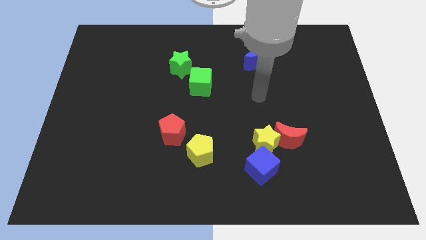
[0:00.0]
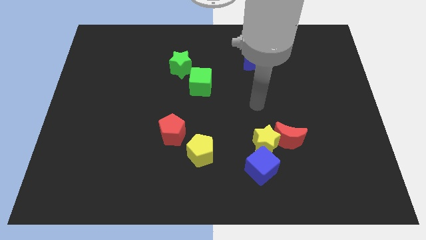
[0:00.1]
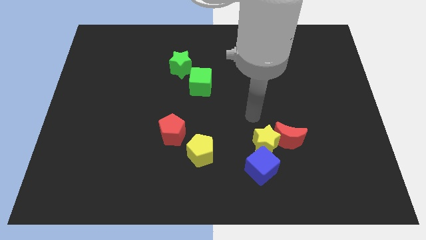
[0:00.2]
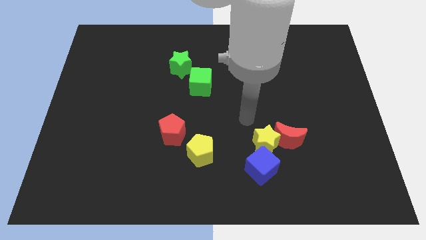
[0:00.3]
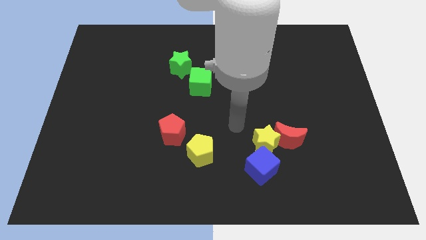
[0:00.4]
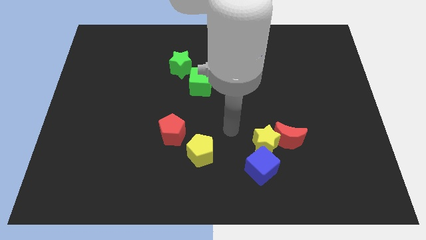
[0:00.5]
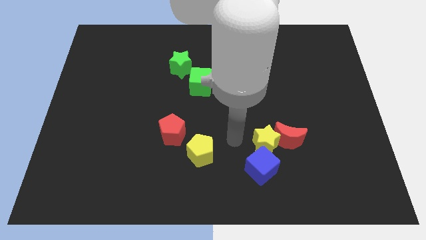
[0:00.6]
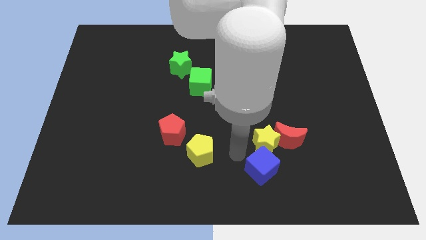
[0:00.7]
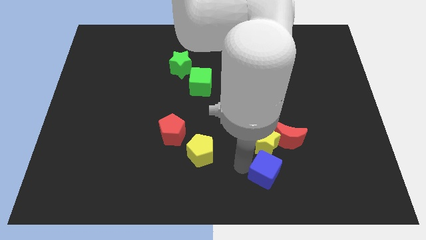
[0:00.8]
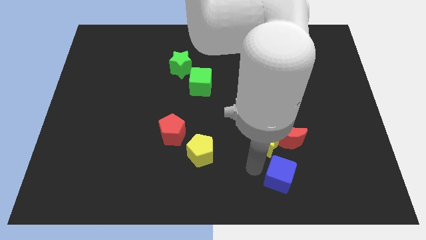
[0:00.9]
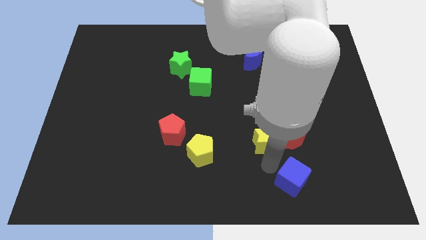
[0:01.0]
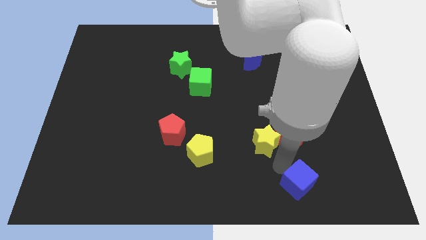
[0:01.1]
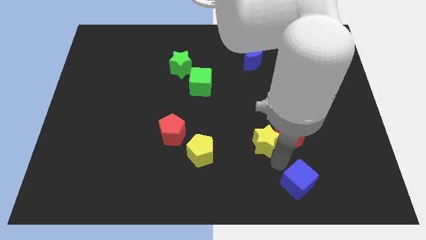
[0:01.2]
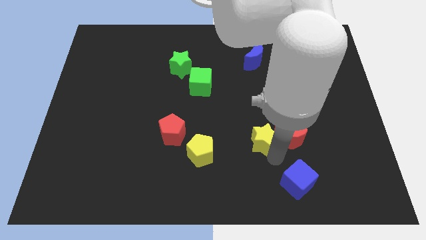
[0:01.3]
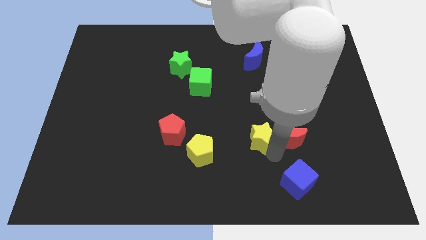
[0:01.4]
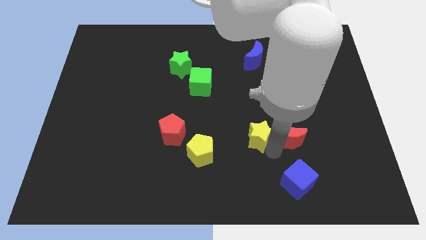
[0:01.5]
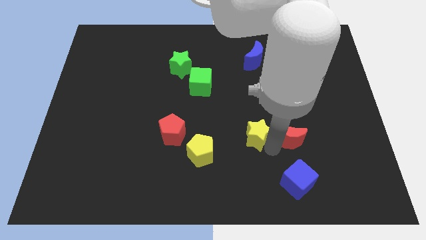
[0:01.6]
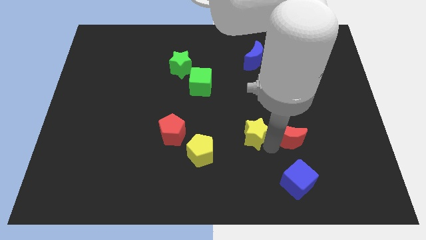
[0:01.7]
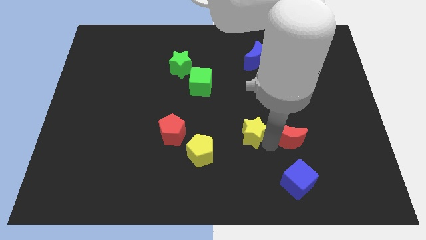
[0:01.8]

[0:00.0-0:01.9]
separate the yellow star from the red moon and blue cube

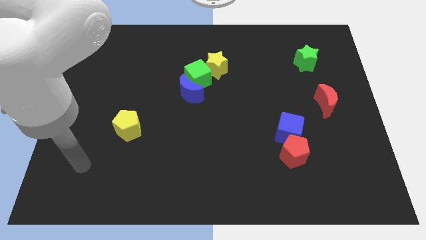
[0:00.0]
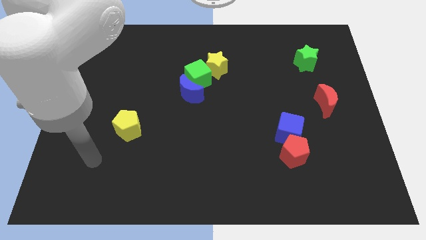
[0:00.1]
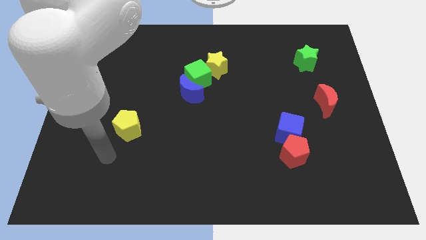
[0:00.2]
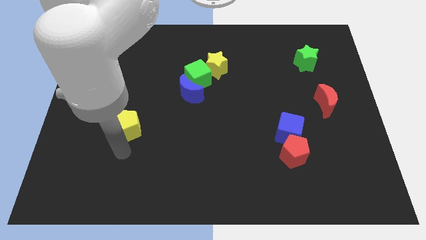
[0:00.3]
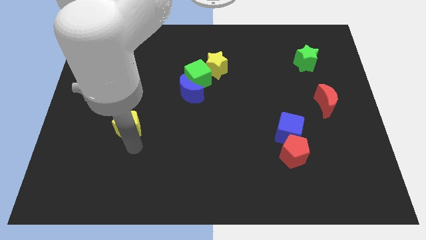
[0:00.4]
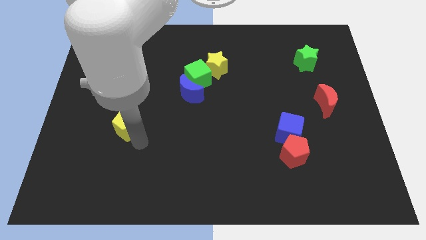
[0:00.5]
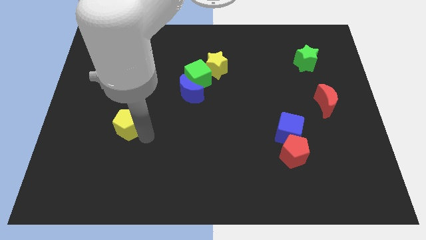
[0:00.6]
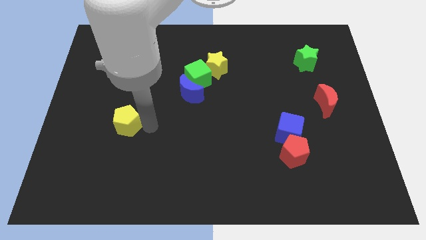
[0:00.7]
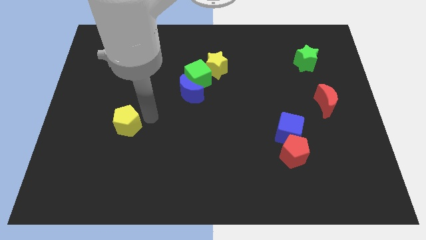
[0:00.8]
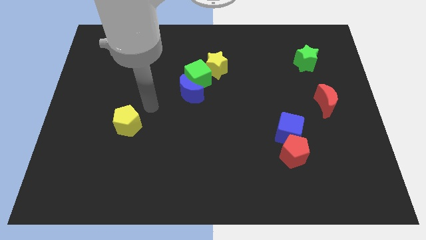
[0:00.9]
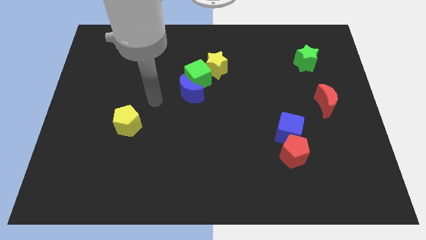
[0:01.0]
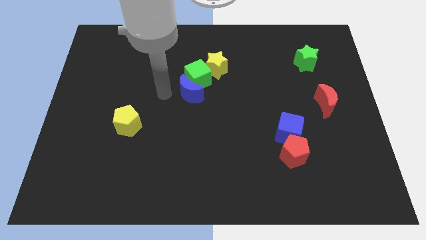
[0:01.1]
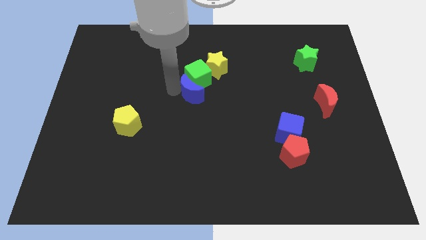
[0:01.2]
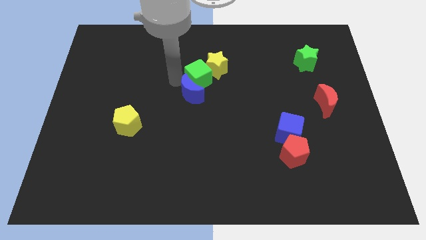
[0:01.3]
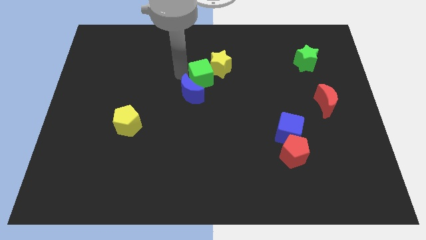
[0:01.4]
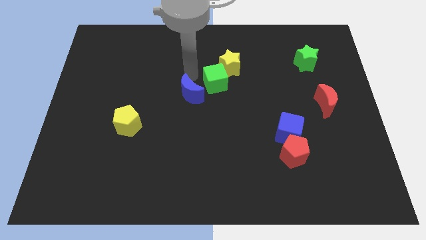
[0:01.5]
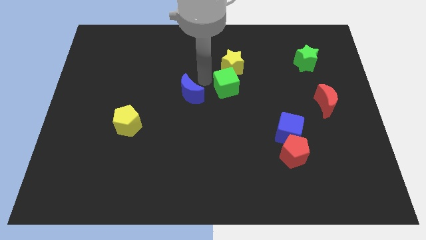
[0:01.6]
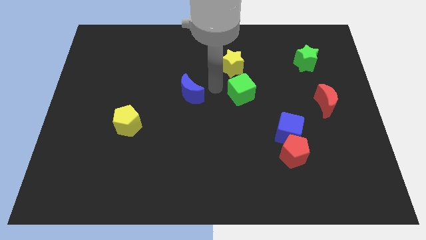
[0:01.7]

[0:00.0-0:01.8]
move the blue moon away from the green cube

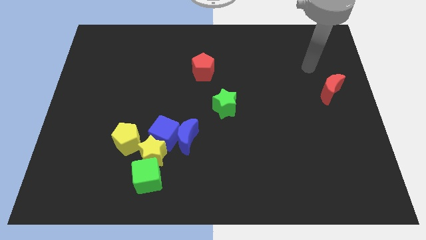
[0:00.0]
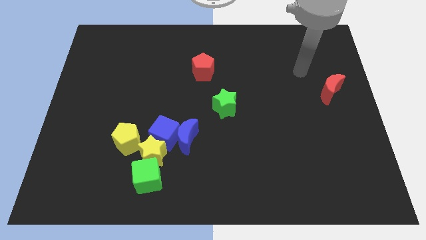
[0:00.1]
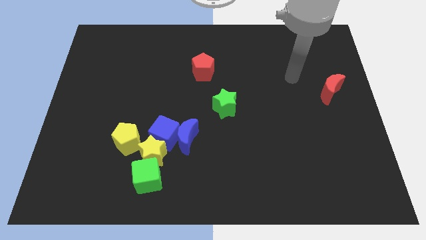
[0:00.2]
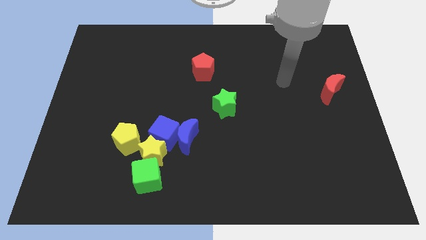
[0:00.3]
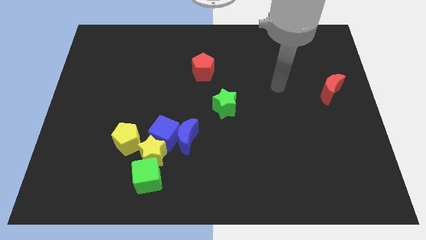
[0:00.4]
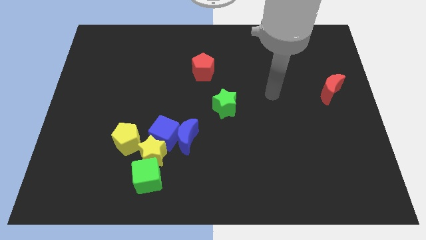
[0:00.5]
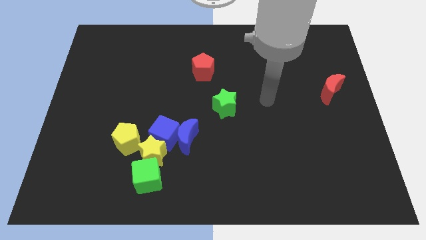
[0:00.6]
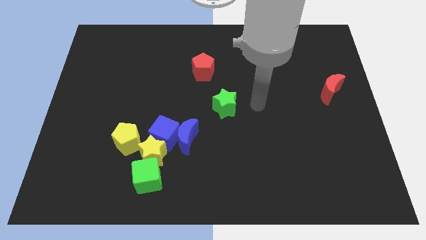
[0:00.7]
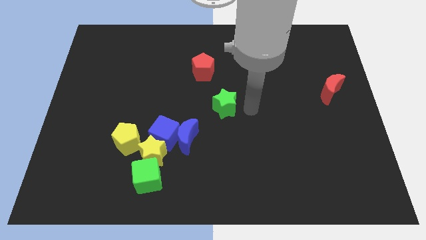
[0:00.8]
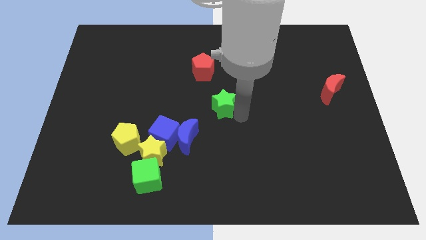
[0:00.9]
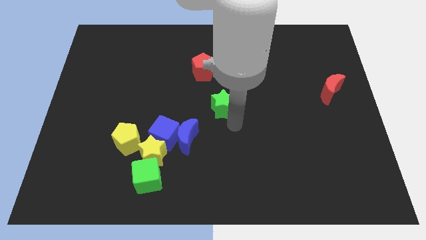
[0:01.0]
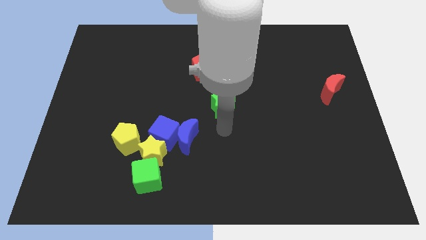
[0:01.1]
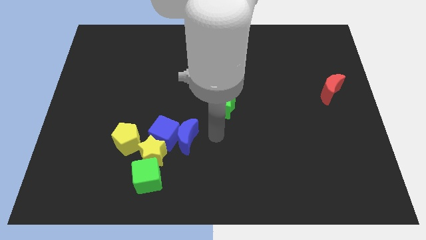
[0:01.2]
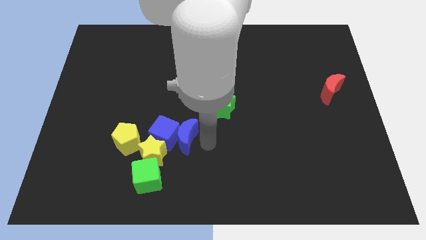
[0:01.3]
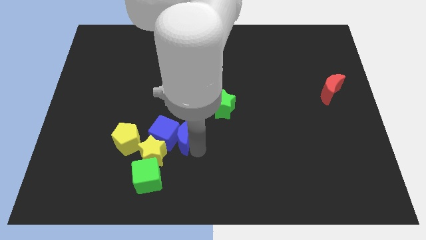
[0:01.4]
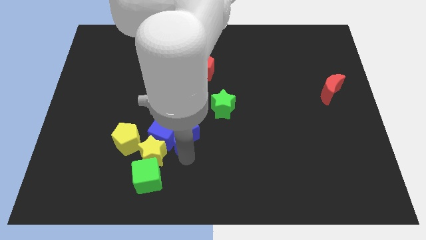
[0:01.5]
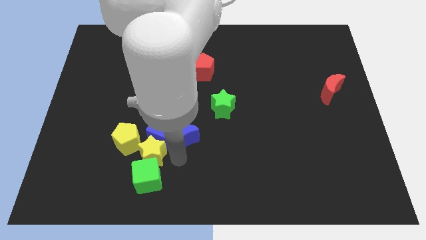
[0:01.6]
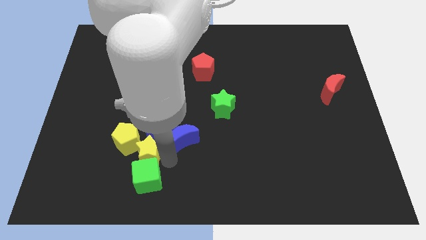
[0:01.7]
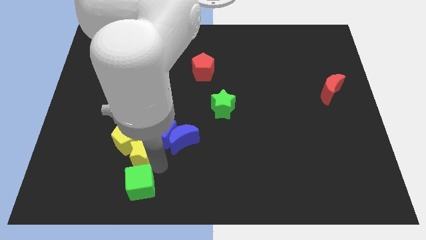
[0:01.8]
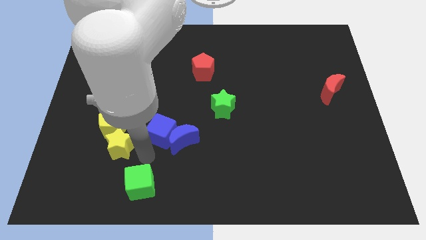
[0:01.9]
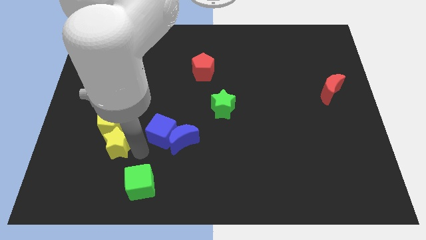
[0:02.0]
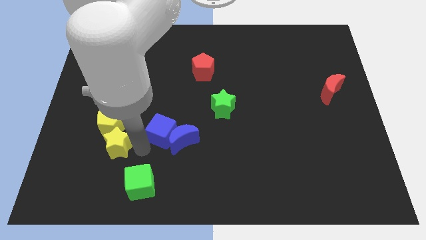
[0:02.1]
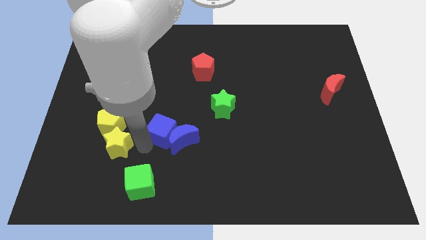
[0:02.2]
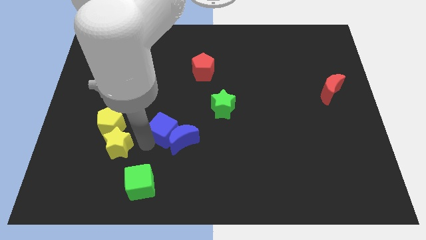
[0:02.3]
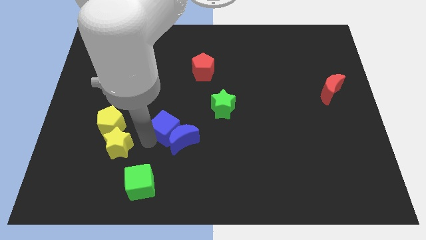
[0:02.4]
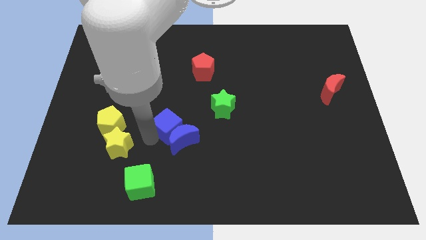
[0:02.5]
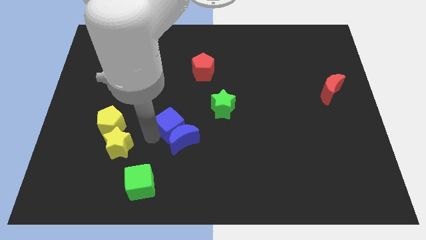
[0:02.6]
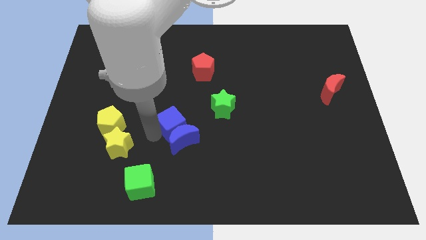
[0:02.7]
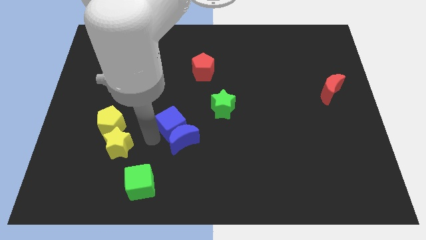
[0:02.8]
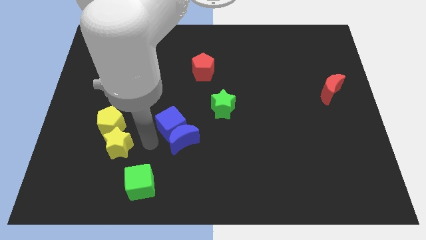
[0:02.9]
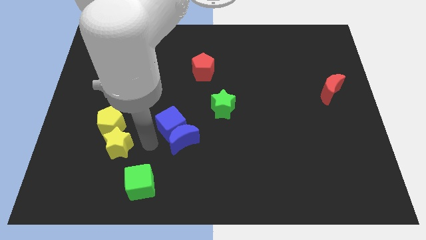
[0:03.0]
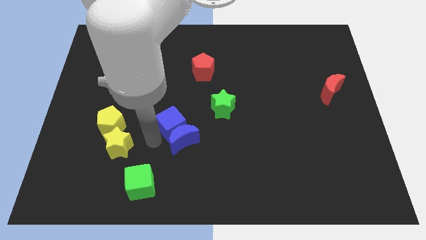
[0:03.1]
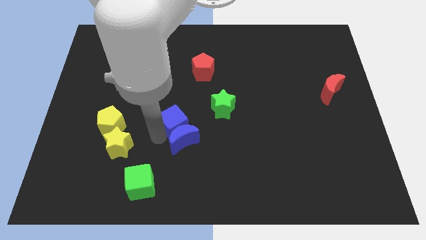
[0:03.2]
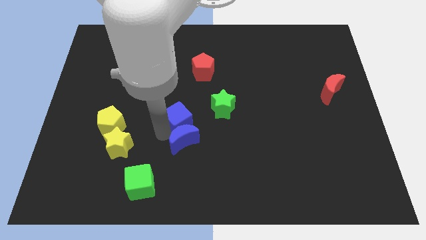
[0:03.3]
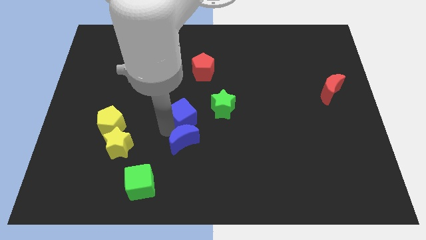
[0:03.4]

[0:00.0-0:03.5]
separate the blue cube from the group of blocks

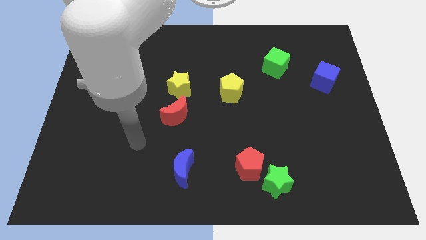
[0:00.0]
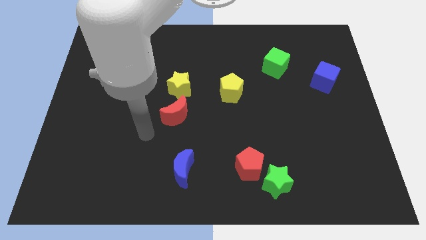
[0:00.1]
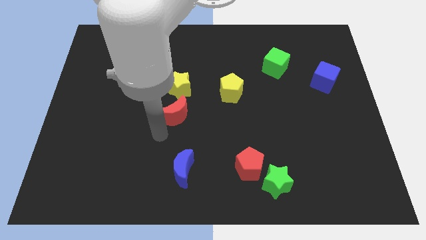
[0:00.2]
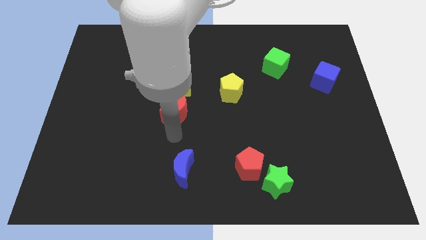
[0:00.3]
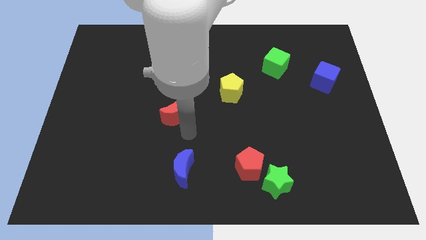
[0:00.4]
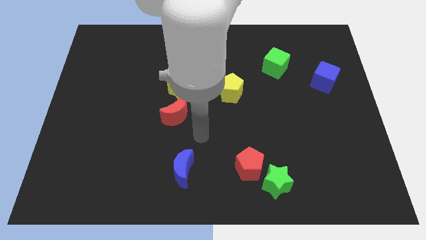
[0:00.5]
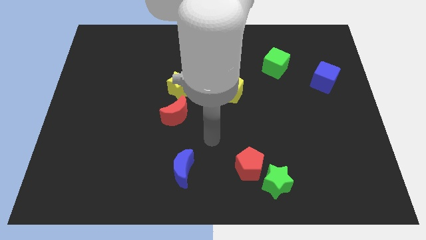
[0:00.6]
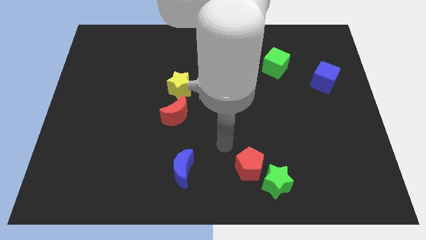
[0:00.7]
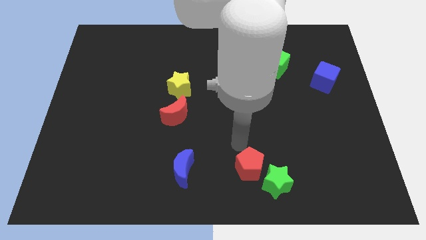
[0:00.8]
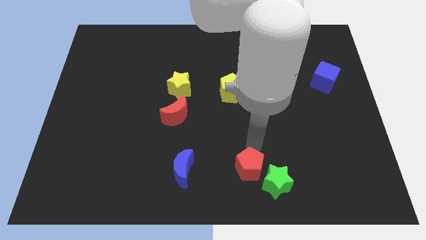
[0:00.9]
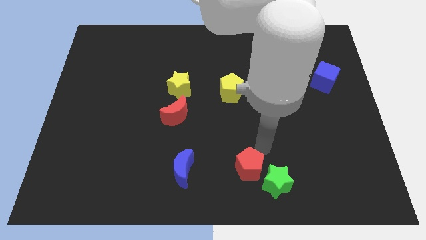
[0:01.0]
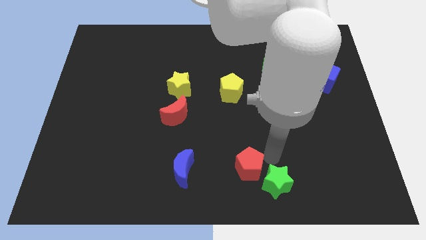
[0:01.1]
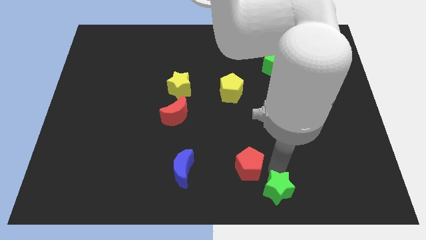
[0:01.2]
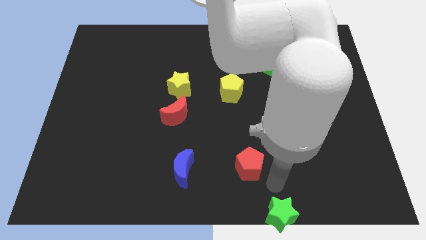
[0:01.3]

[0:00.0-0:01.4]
pull the red pentagon apart from the green star

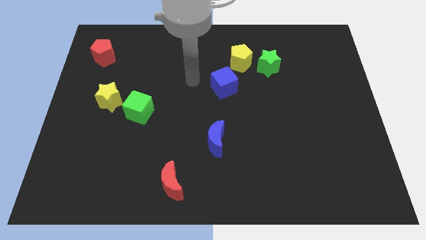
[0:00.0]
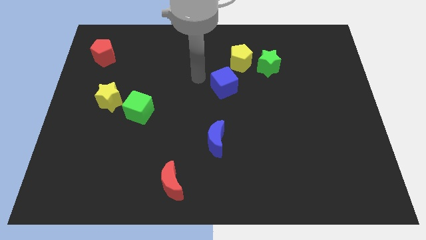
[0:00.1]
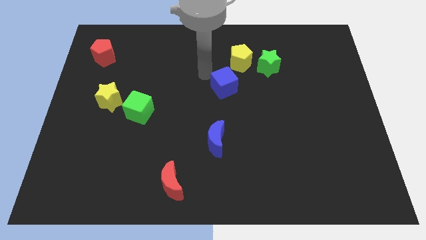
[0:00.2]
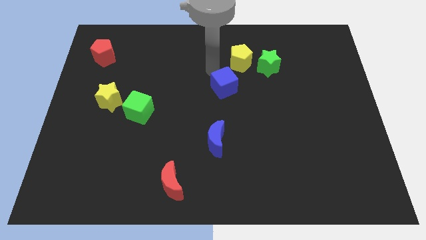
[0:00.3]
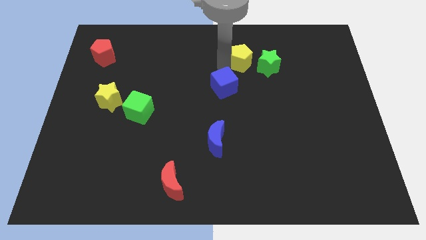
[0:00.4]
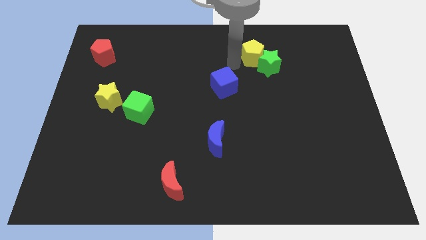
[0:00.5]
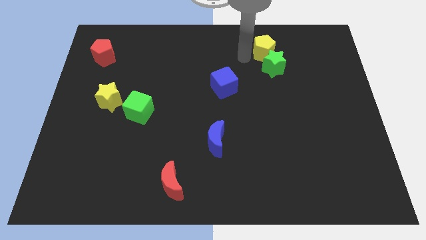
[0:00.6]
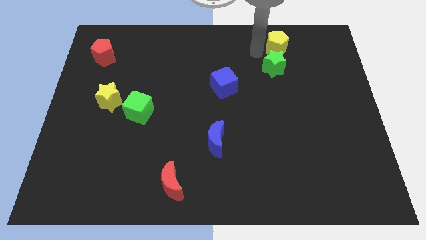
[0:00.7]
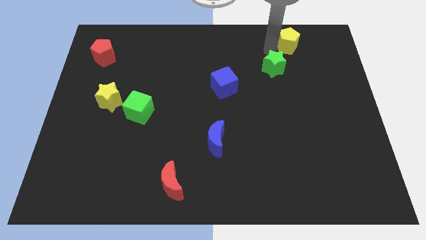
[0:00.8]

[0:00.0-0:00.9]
move the green star away from the yellow pentagon
